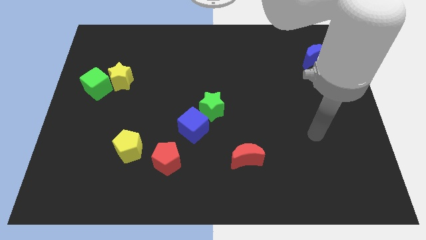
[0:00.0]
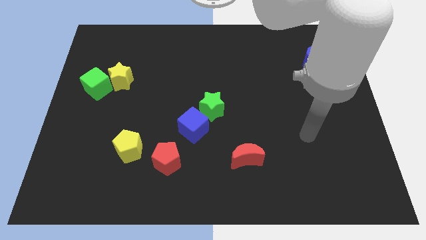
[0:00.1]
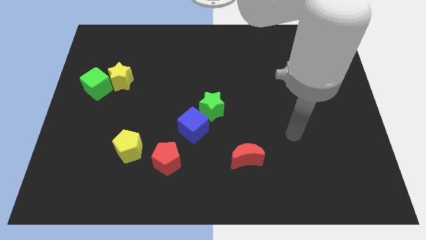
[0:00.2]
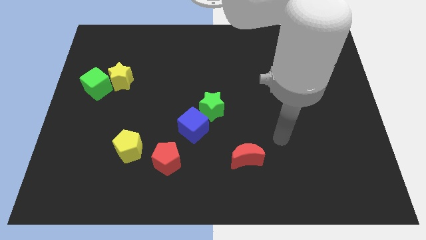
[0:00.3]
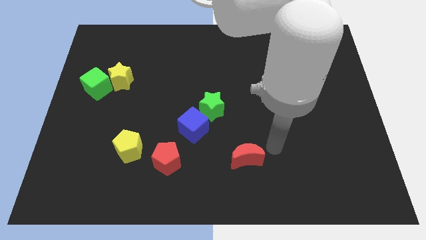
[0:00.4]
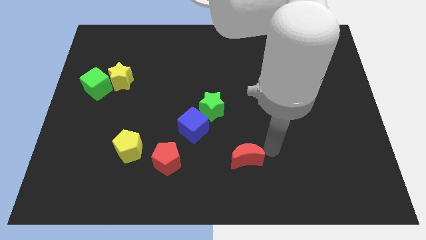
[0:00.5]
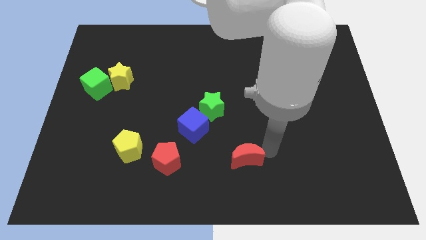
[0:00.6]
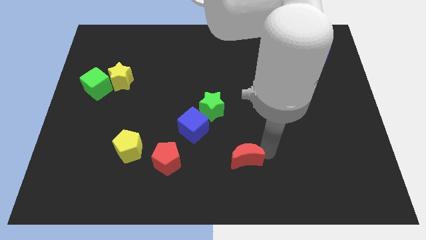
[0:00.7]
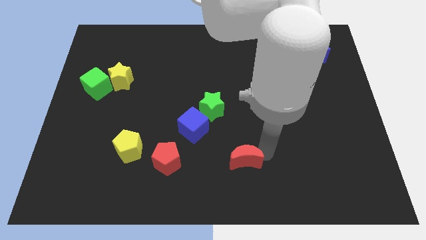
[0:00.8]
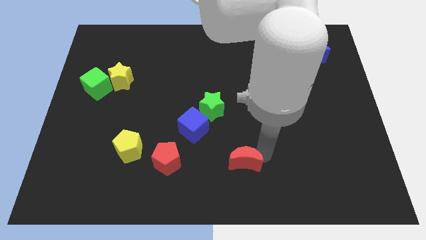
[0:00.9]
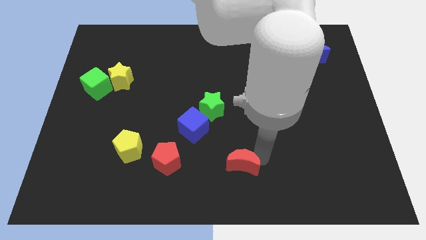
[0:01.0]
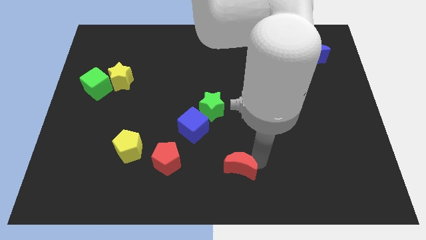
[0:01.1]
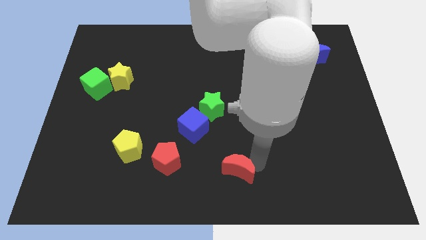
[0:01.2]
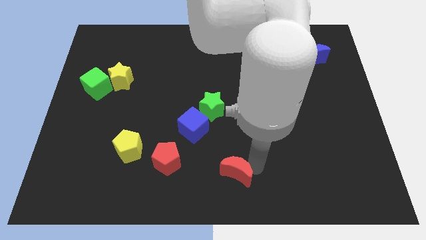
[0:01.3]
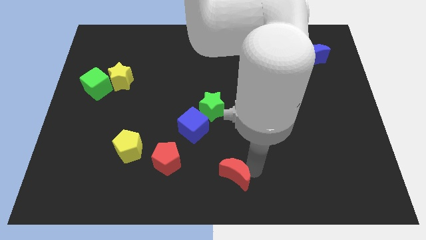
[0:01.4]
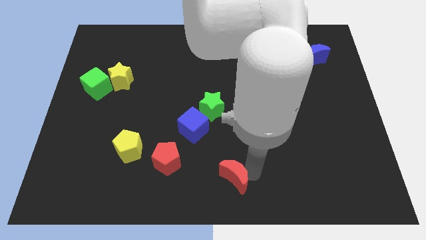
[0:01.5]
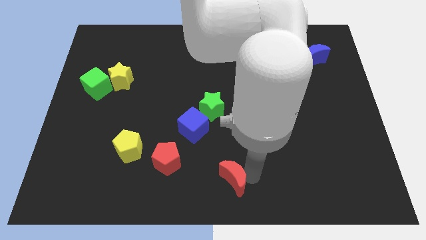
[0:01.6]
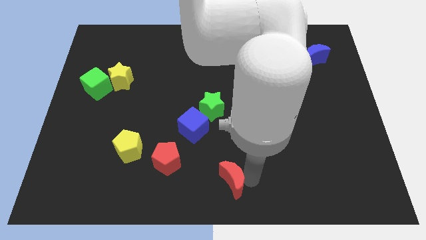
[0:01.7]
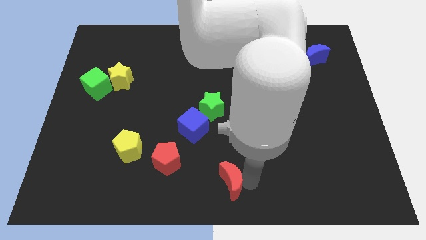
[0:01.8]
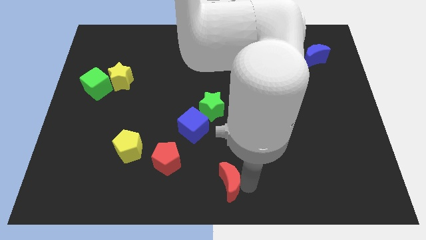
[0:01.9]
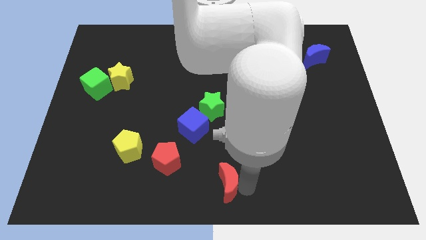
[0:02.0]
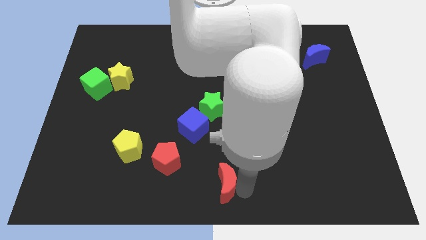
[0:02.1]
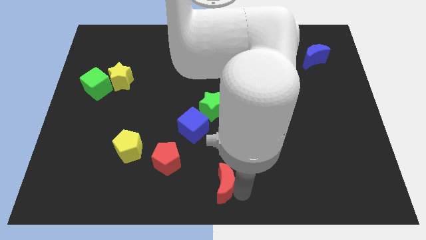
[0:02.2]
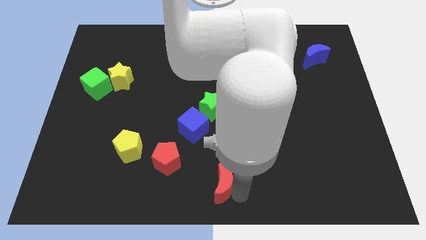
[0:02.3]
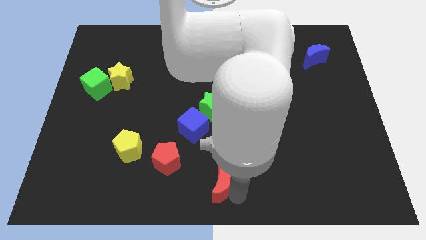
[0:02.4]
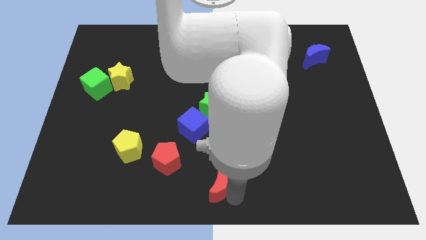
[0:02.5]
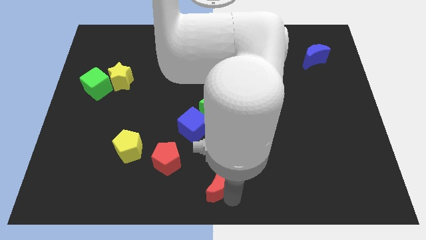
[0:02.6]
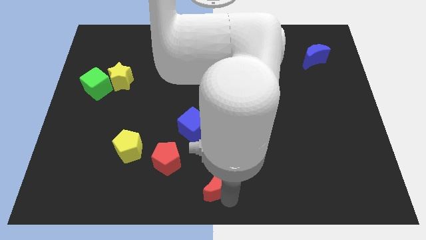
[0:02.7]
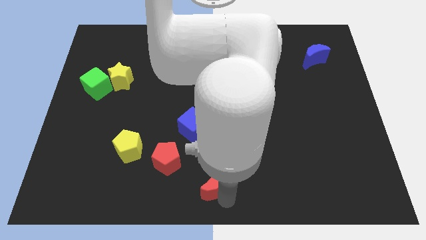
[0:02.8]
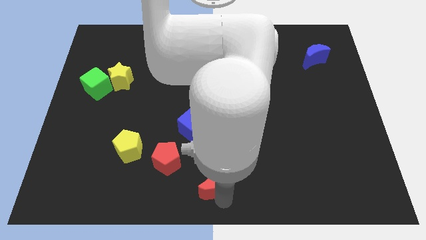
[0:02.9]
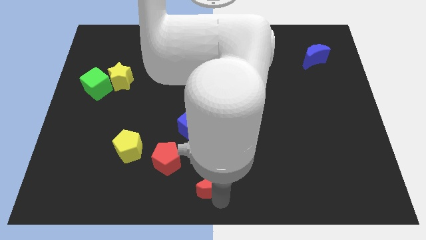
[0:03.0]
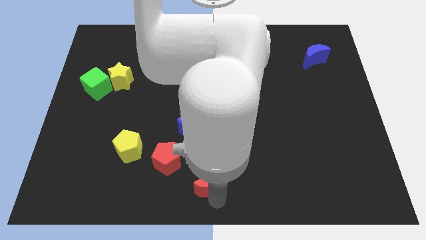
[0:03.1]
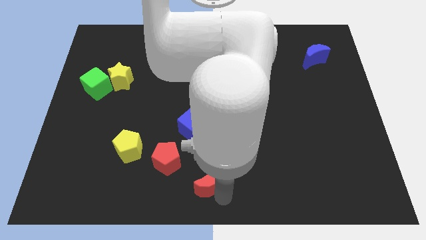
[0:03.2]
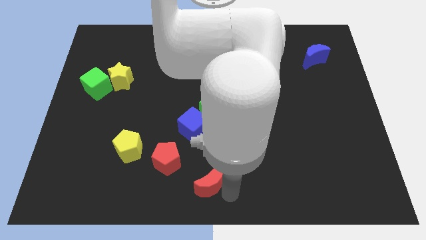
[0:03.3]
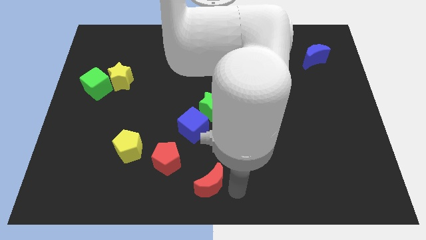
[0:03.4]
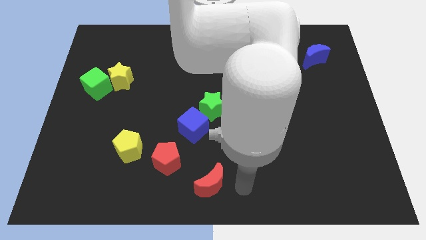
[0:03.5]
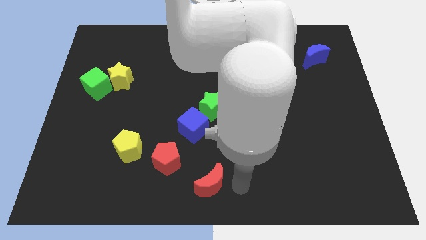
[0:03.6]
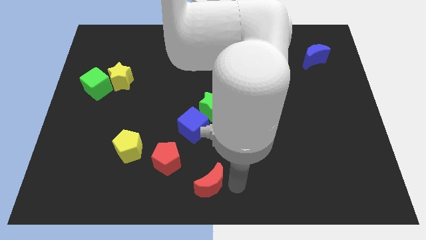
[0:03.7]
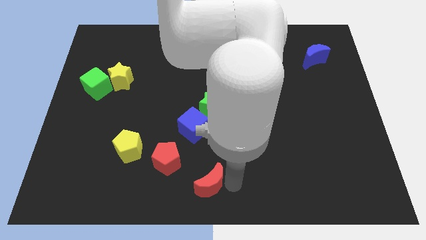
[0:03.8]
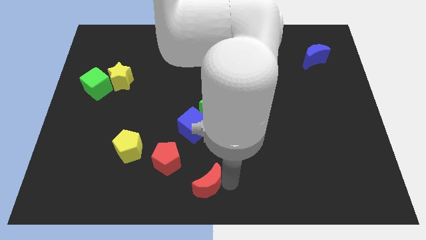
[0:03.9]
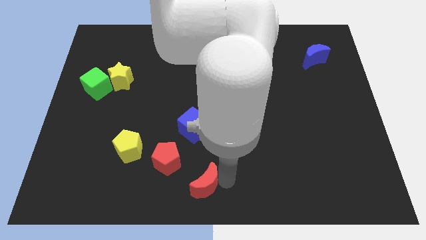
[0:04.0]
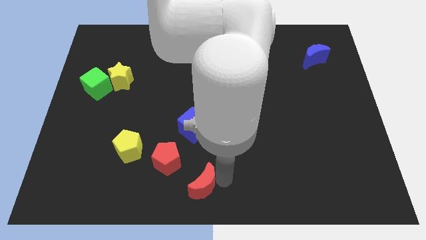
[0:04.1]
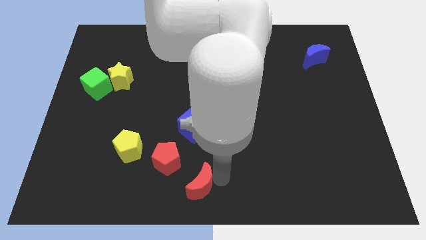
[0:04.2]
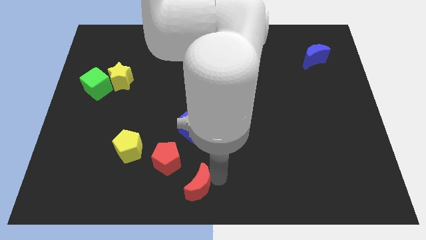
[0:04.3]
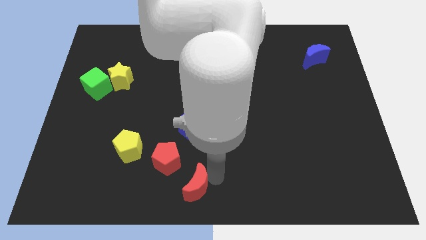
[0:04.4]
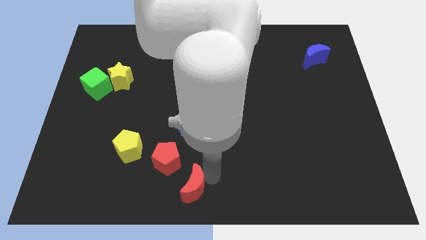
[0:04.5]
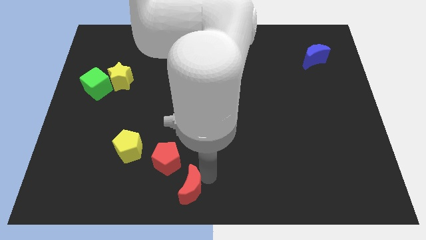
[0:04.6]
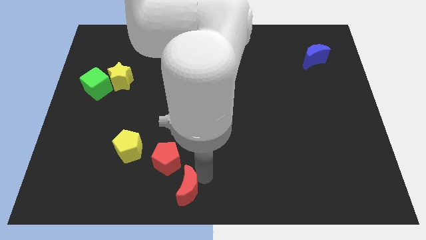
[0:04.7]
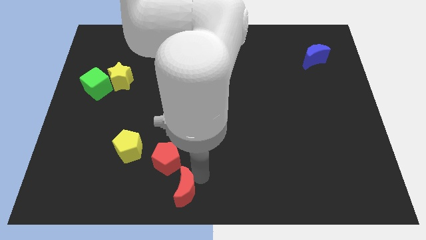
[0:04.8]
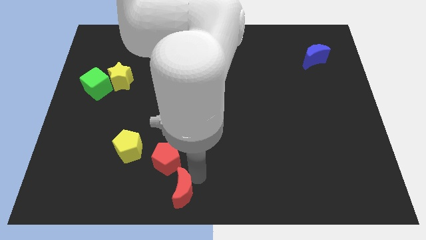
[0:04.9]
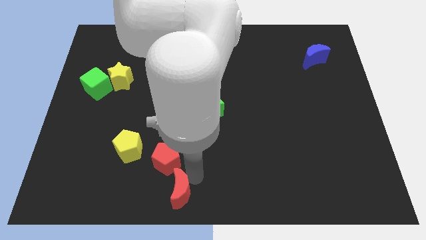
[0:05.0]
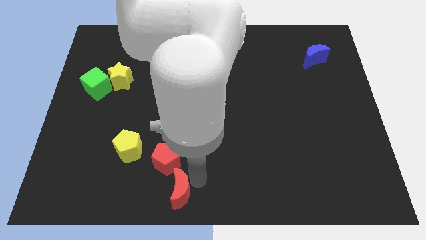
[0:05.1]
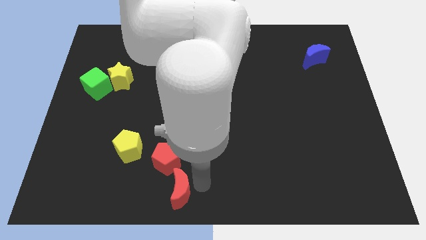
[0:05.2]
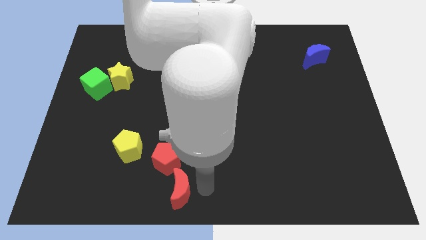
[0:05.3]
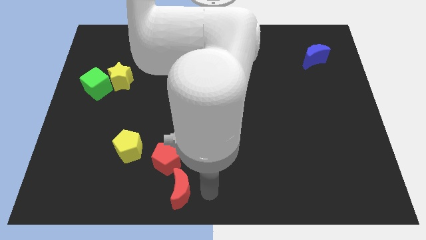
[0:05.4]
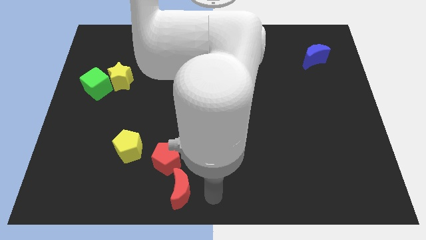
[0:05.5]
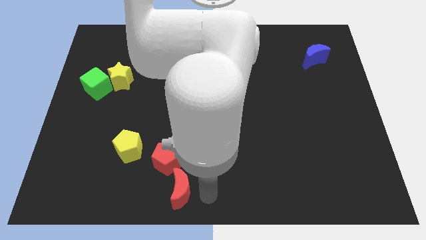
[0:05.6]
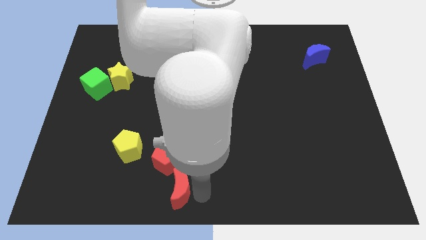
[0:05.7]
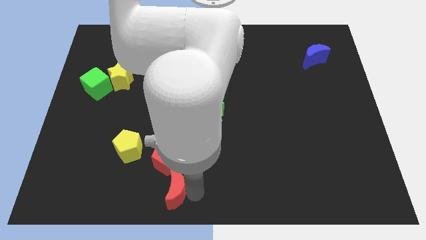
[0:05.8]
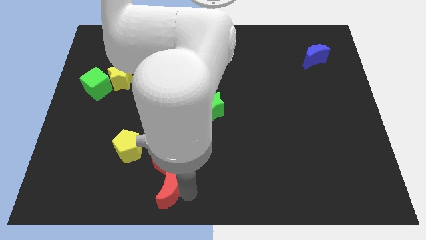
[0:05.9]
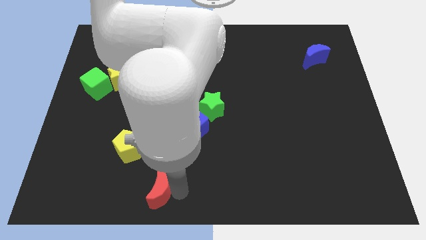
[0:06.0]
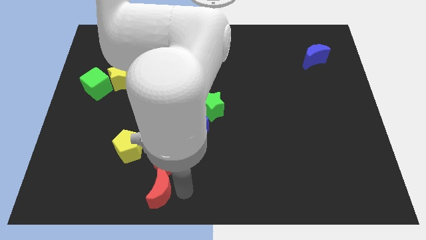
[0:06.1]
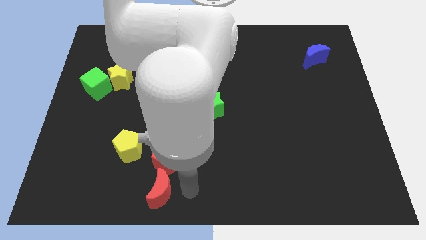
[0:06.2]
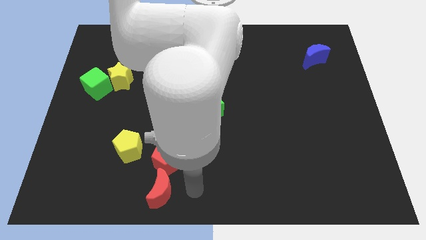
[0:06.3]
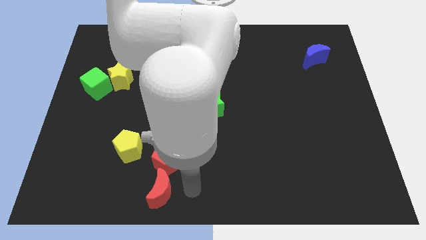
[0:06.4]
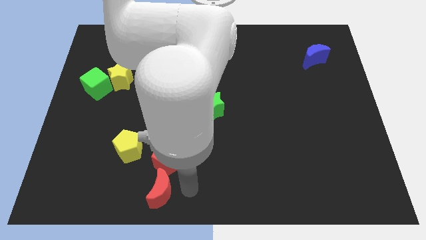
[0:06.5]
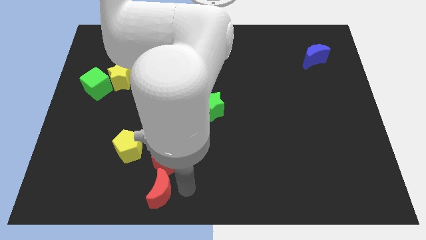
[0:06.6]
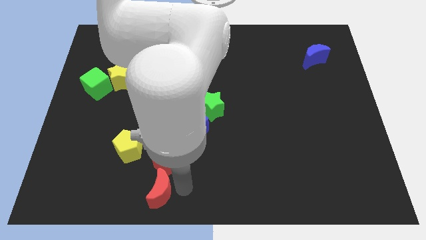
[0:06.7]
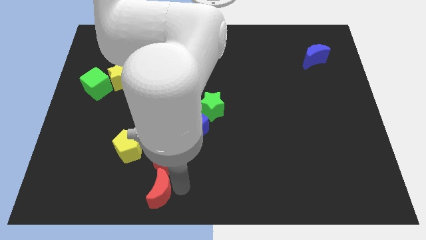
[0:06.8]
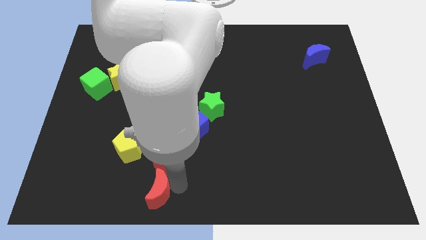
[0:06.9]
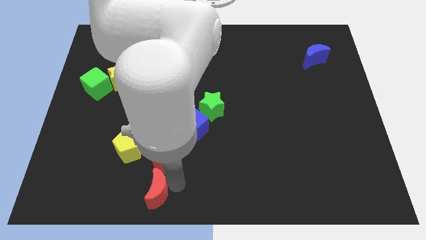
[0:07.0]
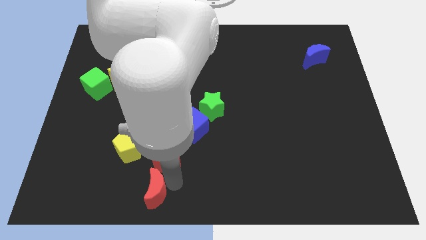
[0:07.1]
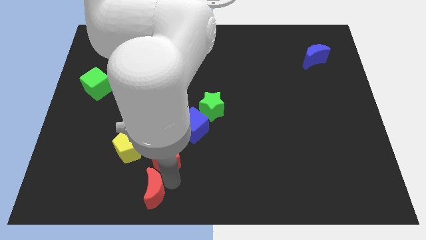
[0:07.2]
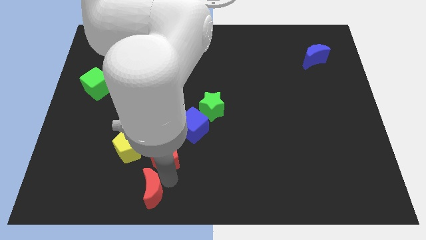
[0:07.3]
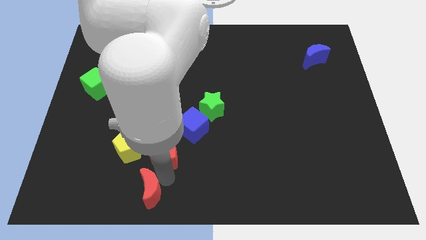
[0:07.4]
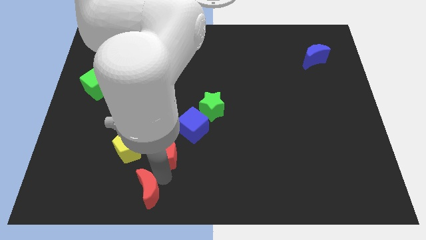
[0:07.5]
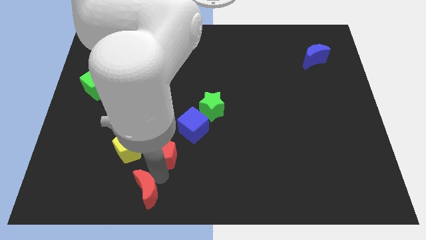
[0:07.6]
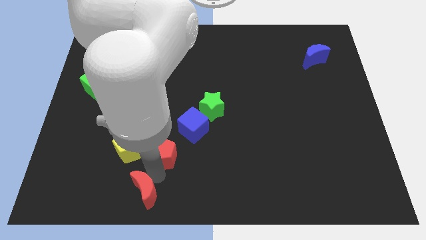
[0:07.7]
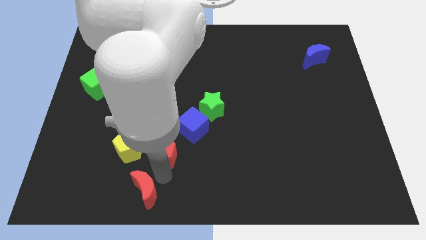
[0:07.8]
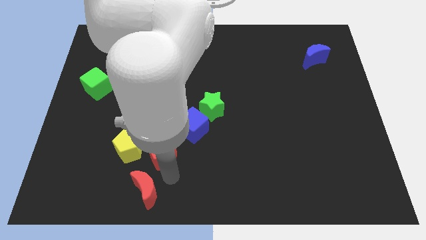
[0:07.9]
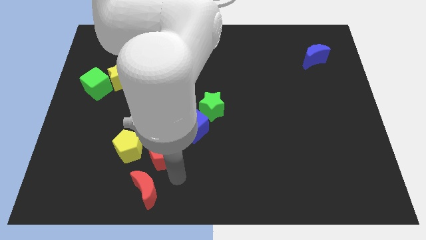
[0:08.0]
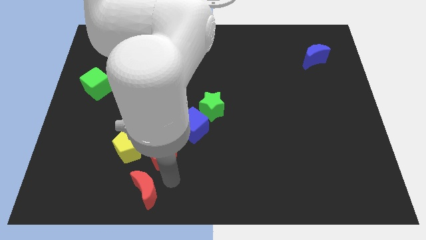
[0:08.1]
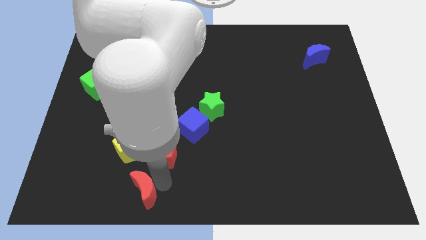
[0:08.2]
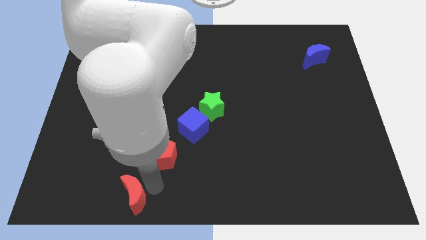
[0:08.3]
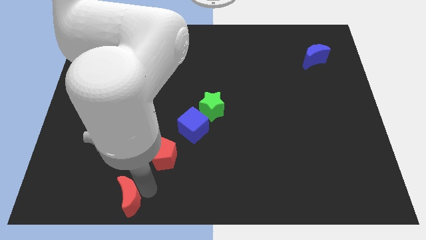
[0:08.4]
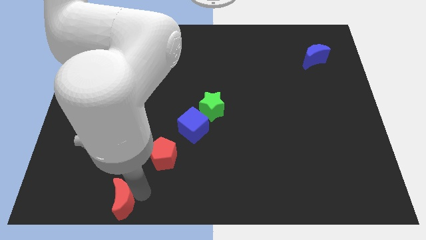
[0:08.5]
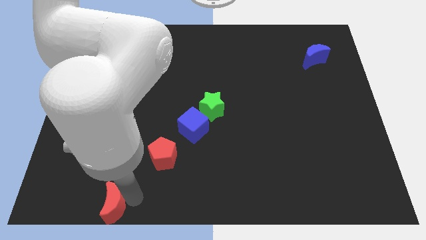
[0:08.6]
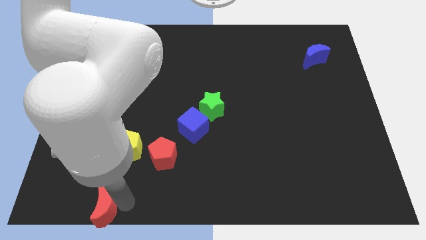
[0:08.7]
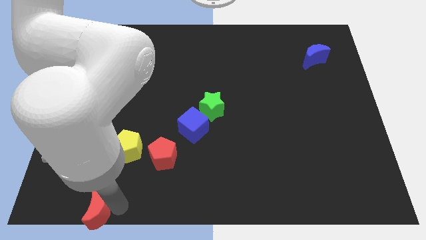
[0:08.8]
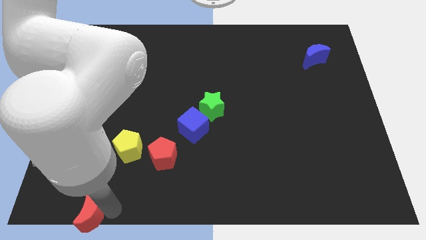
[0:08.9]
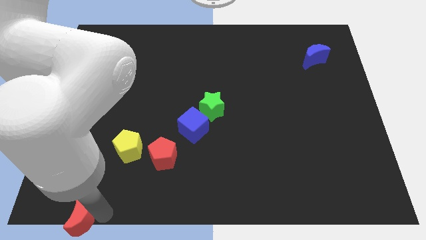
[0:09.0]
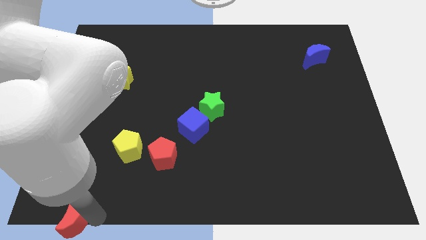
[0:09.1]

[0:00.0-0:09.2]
push the red moon to the bottom left
